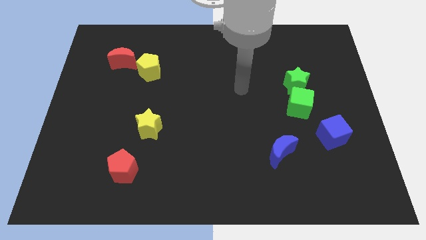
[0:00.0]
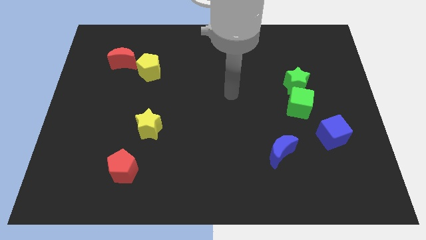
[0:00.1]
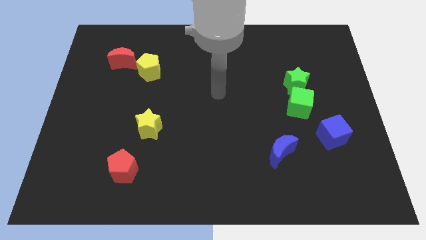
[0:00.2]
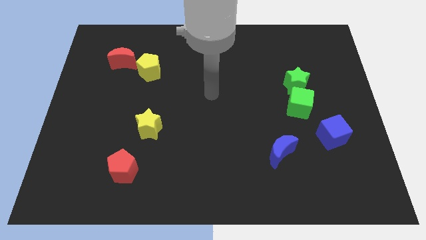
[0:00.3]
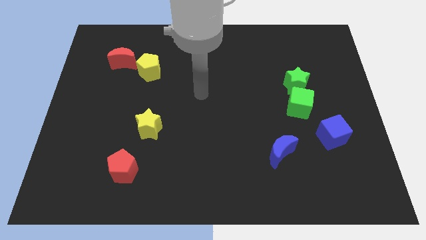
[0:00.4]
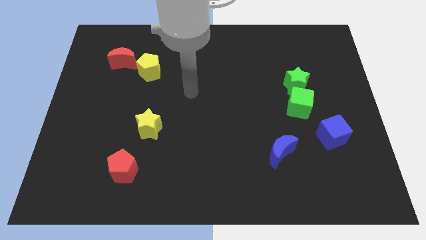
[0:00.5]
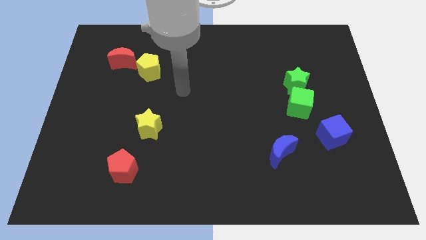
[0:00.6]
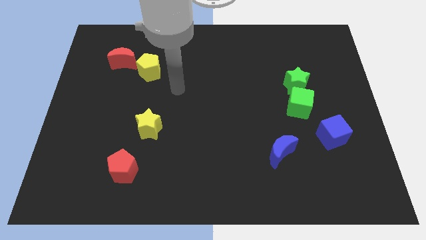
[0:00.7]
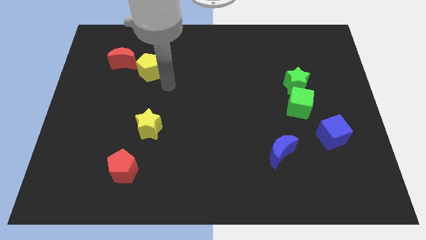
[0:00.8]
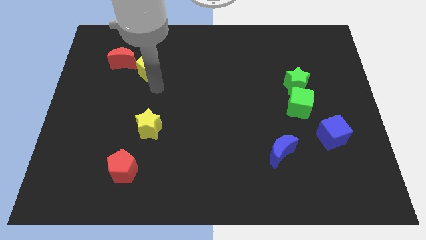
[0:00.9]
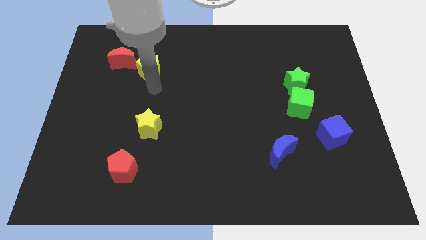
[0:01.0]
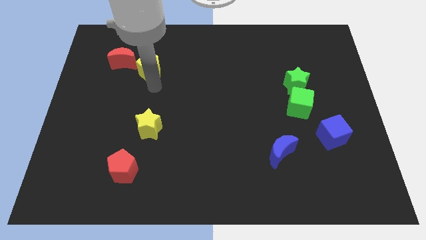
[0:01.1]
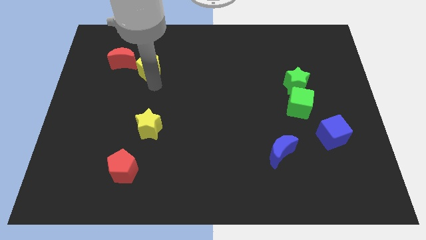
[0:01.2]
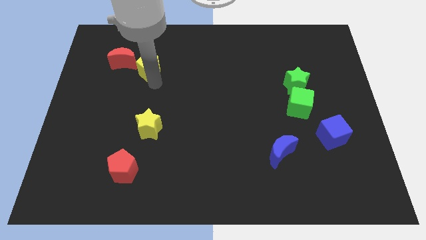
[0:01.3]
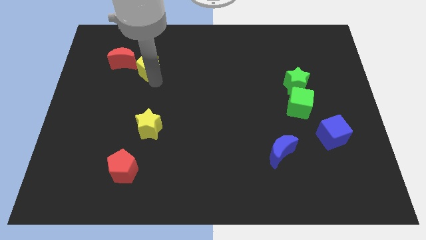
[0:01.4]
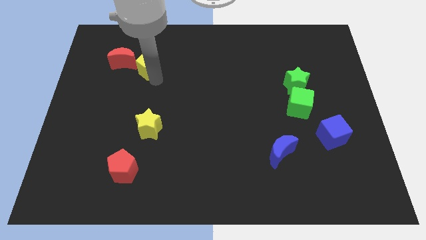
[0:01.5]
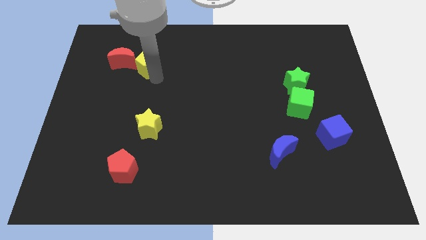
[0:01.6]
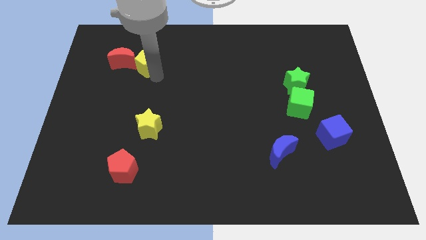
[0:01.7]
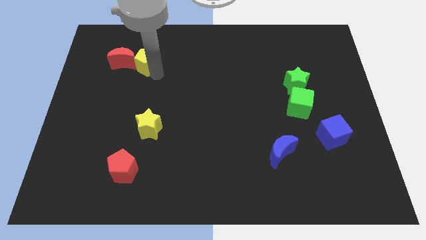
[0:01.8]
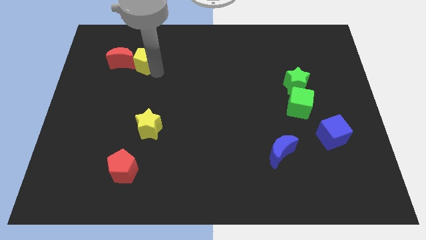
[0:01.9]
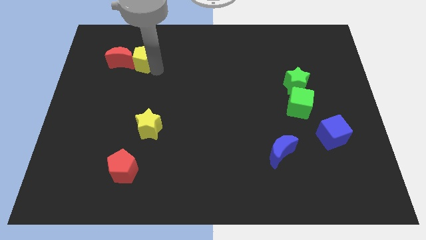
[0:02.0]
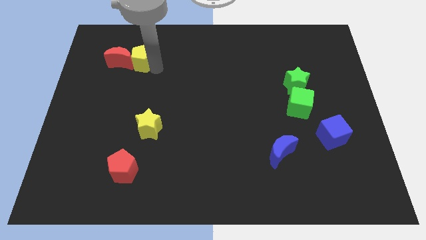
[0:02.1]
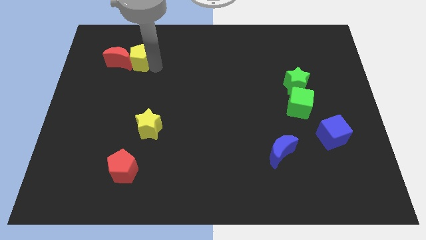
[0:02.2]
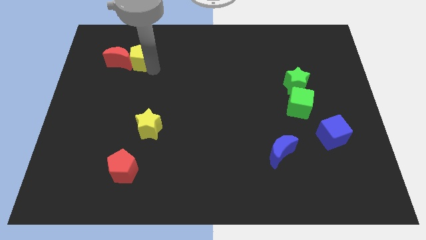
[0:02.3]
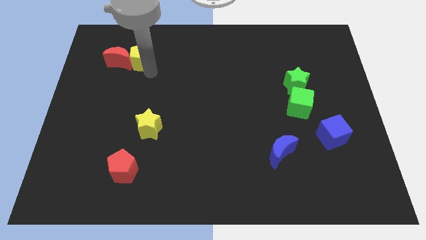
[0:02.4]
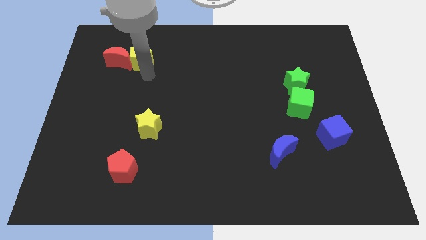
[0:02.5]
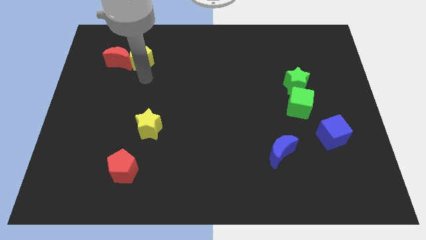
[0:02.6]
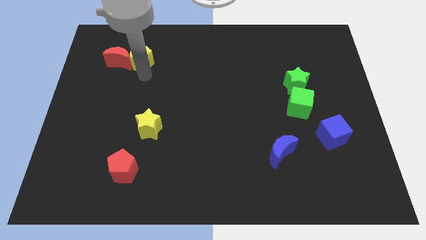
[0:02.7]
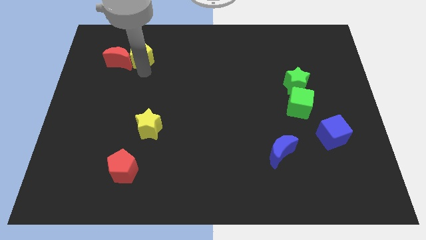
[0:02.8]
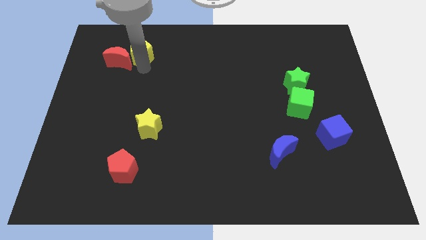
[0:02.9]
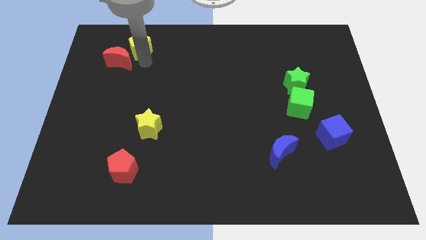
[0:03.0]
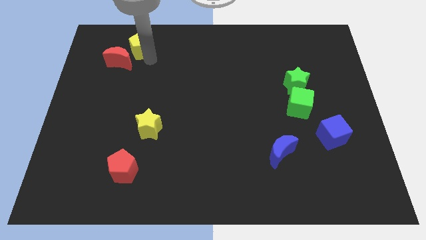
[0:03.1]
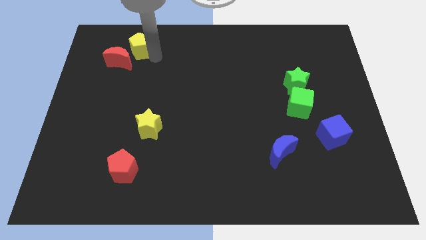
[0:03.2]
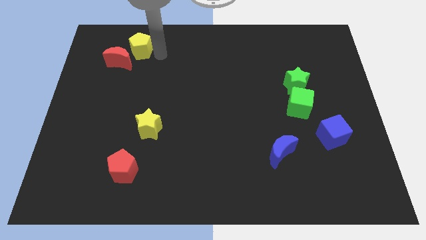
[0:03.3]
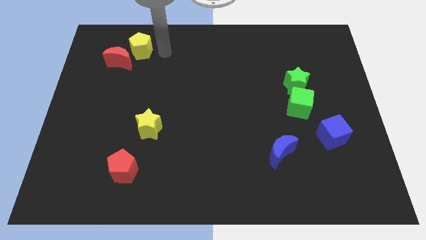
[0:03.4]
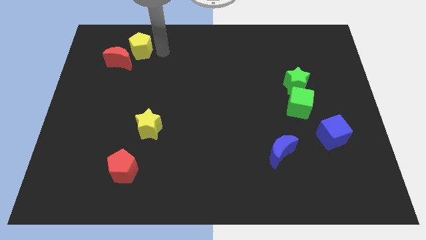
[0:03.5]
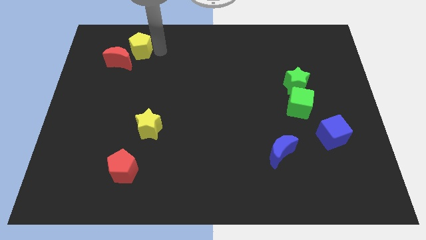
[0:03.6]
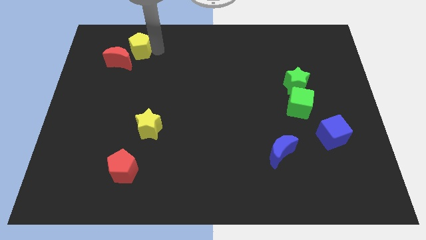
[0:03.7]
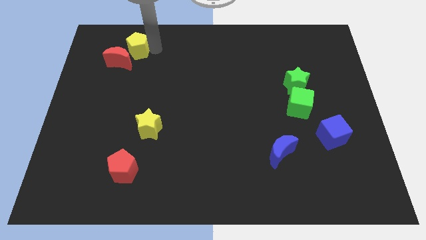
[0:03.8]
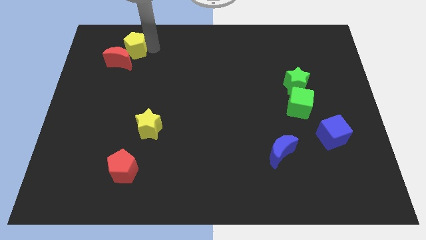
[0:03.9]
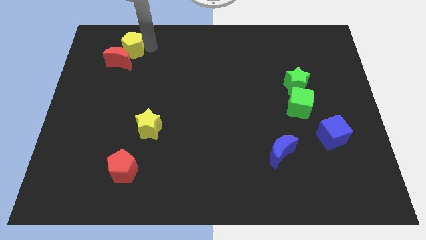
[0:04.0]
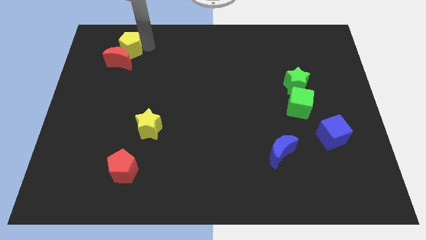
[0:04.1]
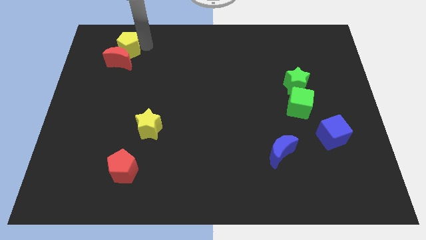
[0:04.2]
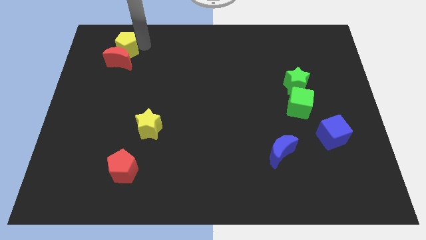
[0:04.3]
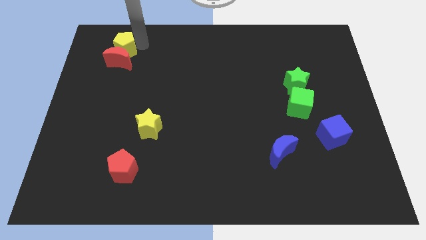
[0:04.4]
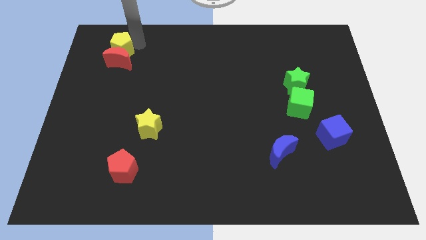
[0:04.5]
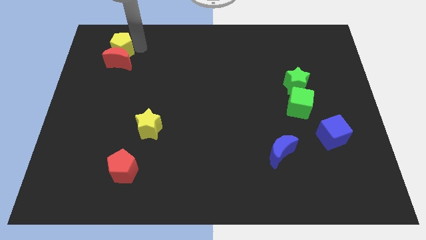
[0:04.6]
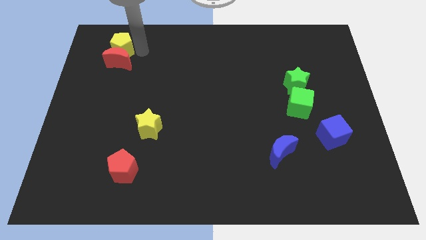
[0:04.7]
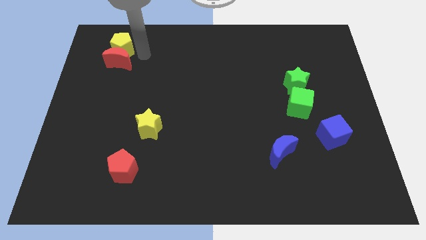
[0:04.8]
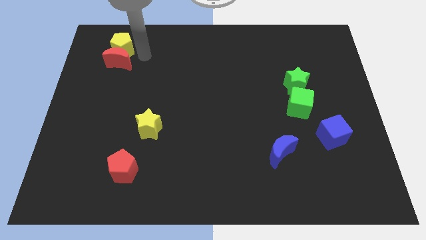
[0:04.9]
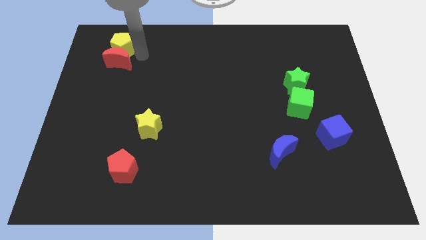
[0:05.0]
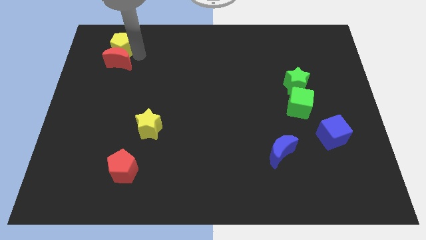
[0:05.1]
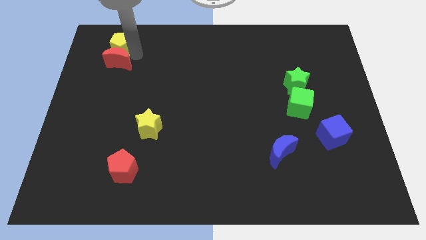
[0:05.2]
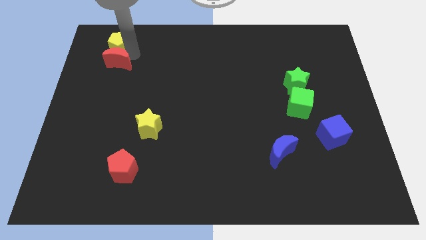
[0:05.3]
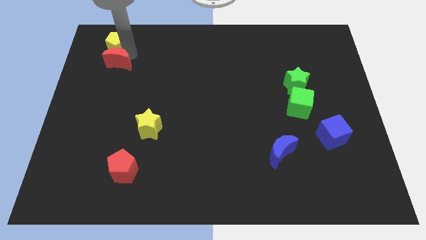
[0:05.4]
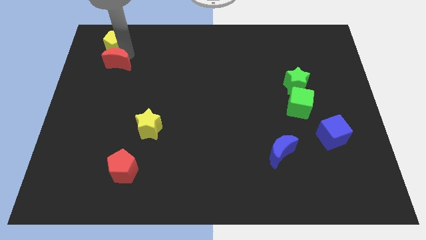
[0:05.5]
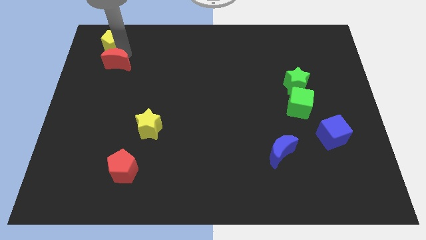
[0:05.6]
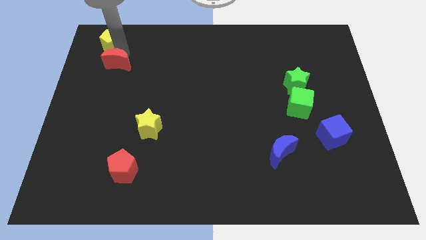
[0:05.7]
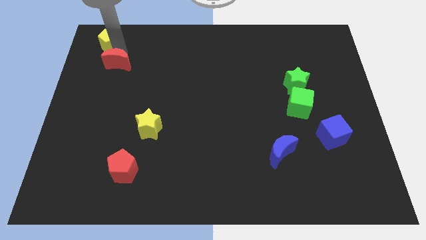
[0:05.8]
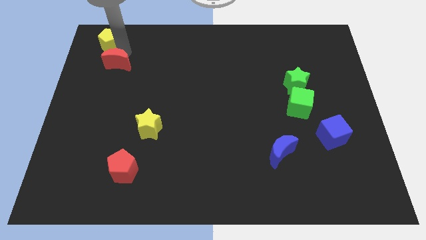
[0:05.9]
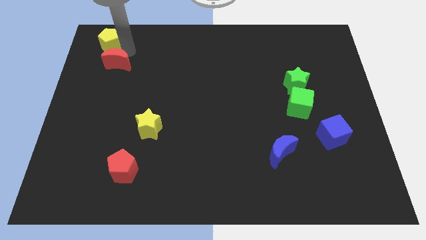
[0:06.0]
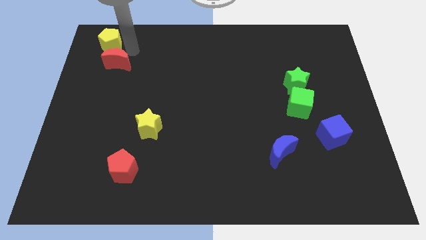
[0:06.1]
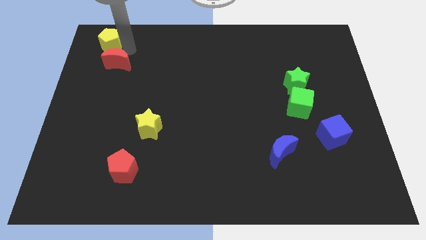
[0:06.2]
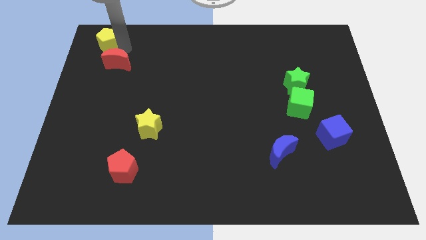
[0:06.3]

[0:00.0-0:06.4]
slide the yellow pentagon to the top left of the board

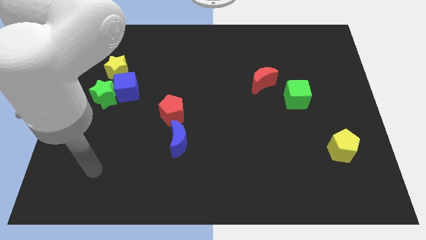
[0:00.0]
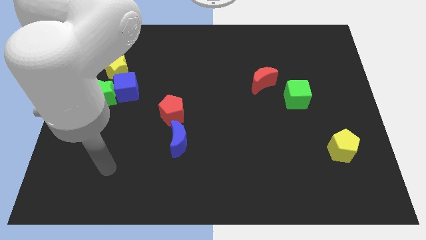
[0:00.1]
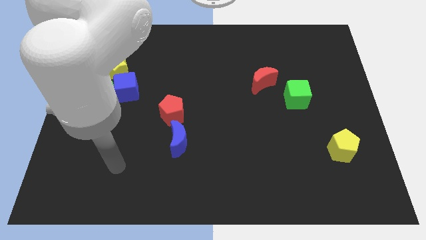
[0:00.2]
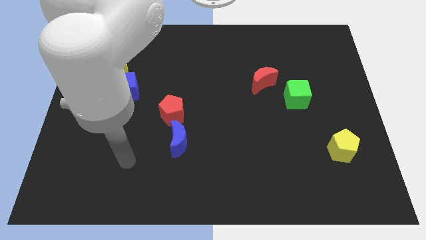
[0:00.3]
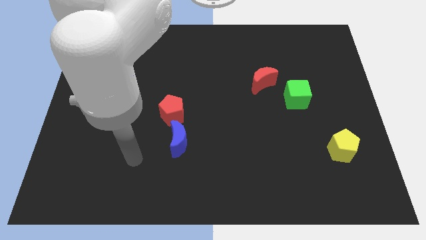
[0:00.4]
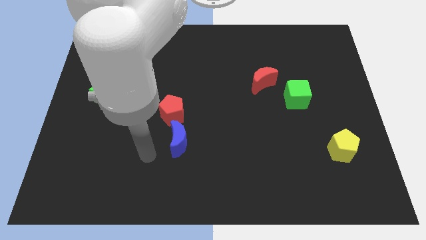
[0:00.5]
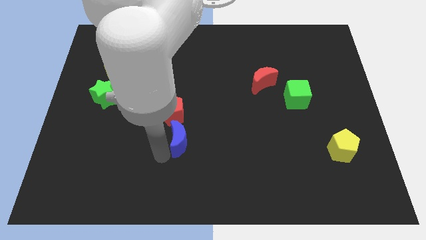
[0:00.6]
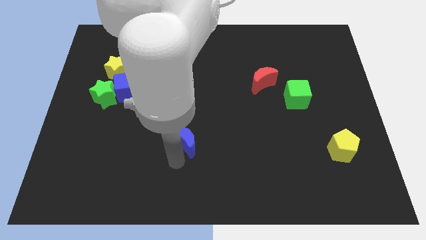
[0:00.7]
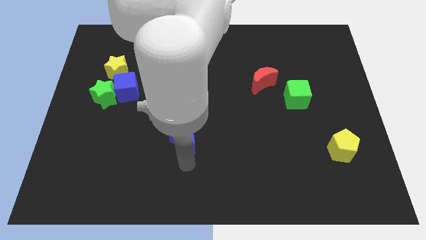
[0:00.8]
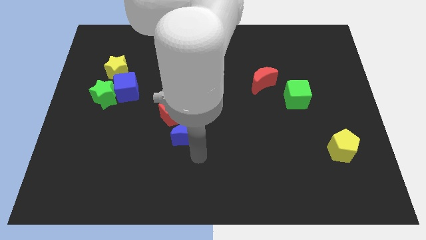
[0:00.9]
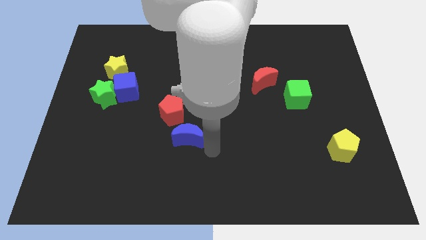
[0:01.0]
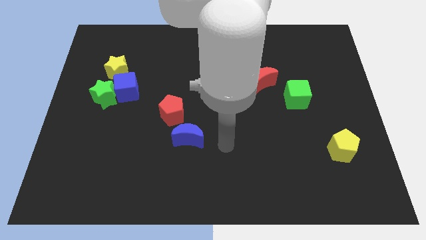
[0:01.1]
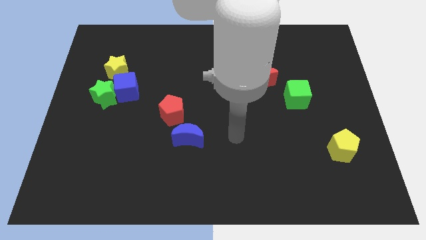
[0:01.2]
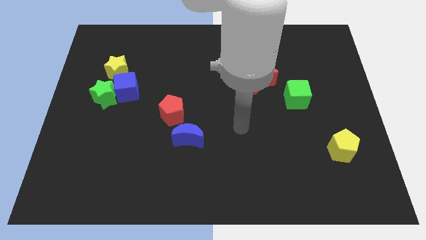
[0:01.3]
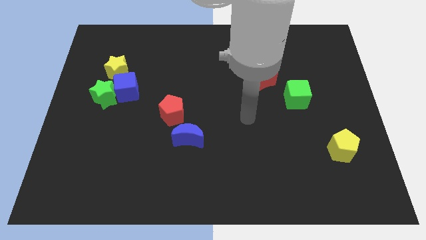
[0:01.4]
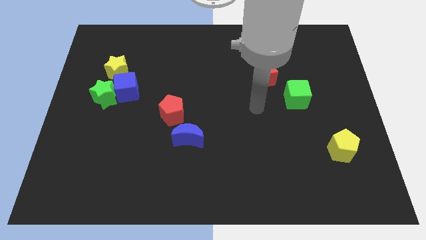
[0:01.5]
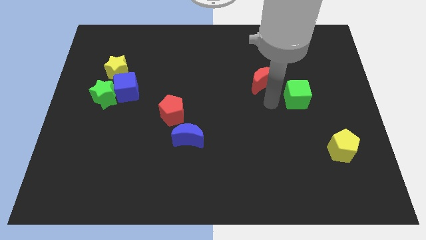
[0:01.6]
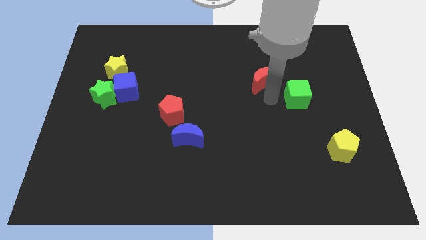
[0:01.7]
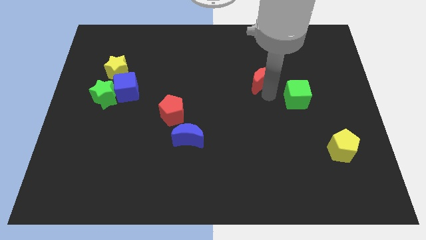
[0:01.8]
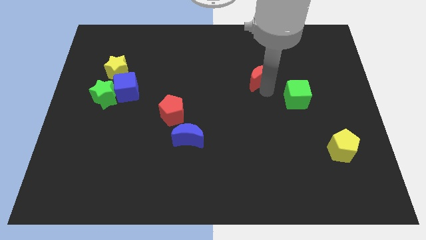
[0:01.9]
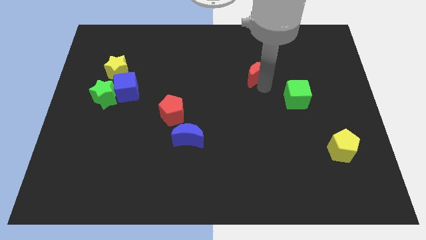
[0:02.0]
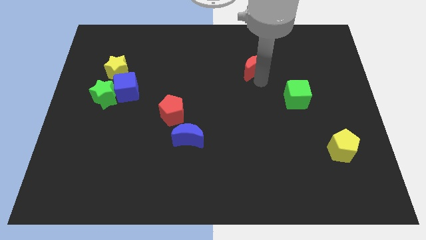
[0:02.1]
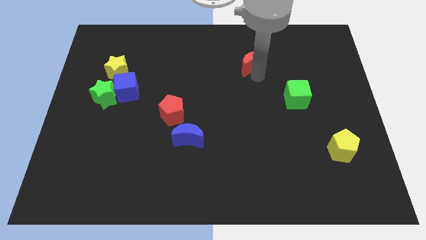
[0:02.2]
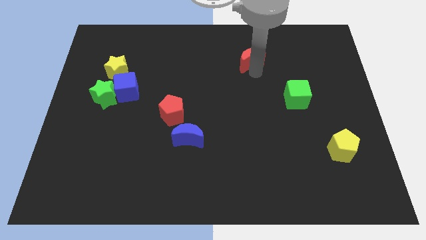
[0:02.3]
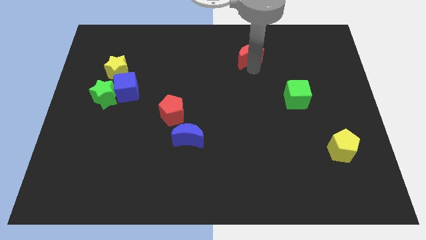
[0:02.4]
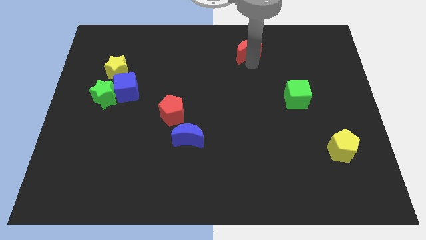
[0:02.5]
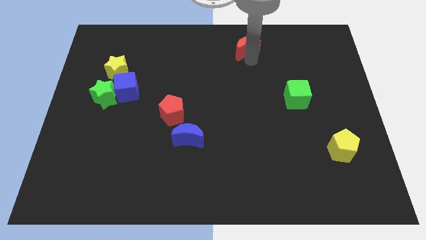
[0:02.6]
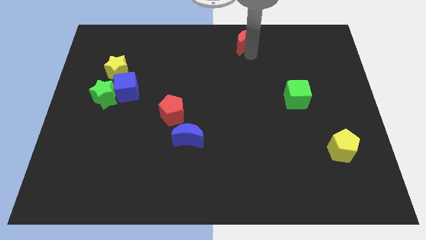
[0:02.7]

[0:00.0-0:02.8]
move the red moon to the top
